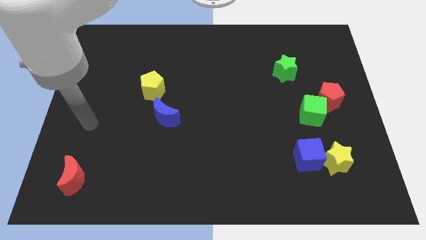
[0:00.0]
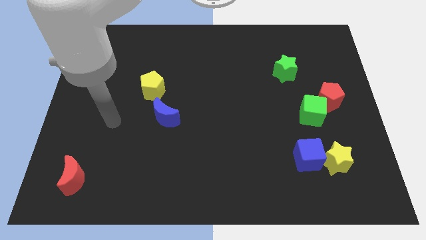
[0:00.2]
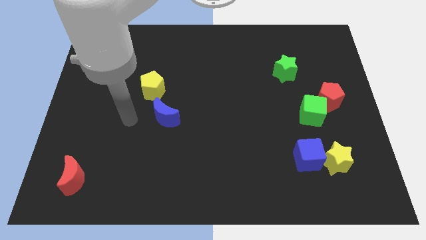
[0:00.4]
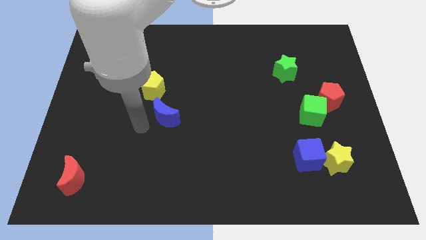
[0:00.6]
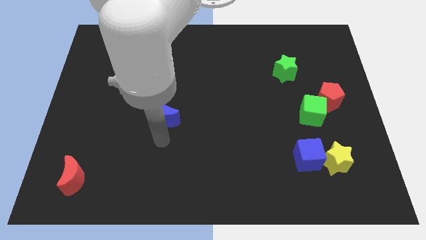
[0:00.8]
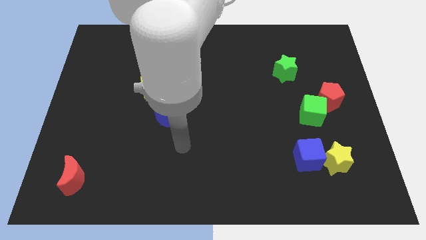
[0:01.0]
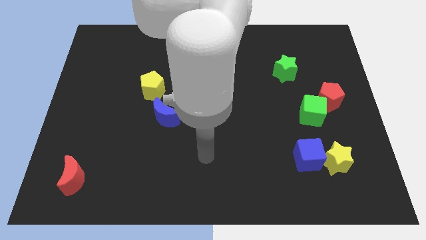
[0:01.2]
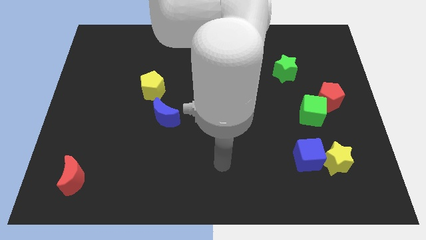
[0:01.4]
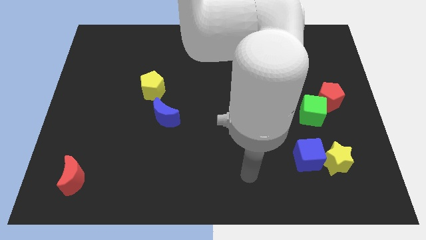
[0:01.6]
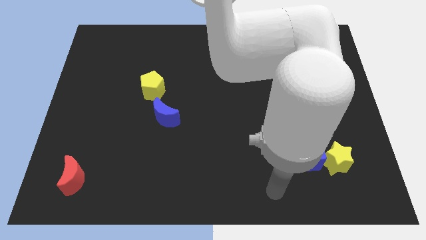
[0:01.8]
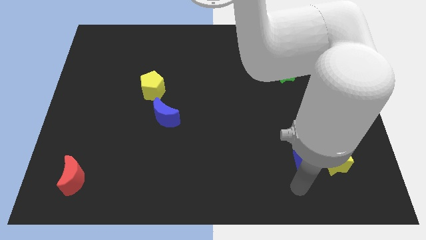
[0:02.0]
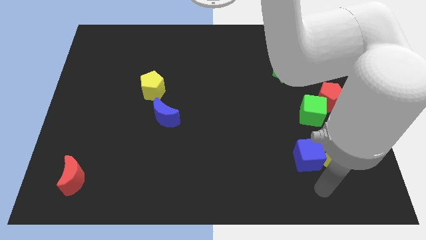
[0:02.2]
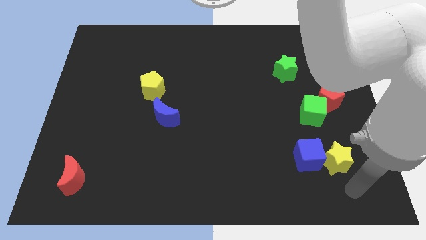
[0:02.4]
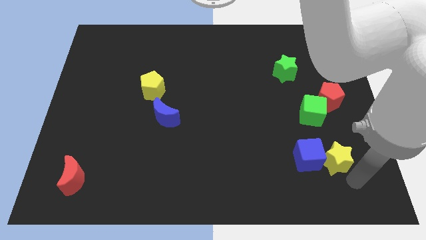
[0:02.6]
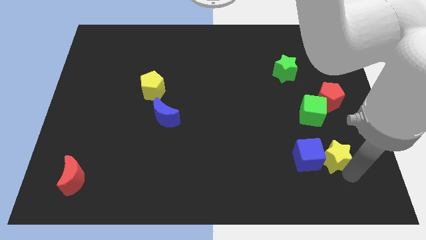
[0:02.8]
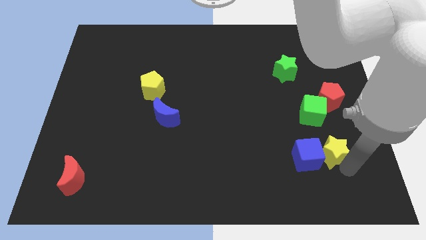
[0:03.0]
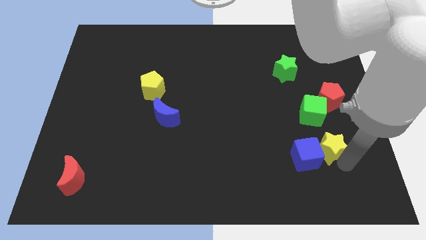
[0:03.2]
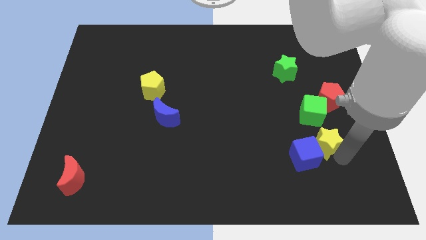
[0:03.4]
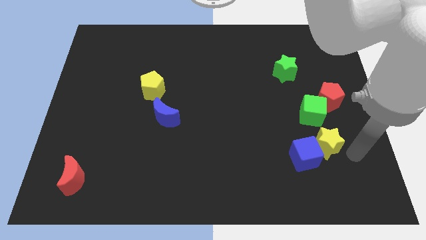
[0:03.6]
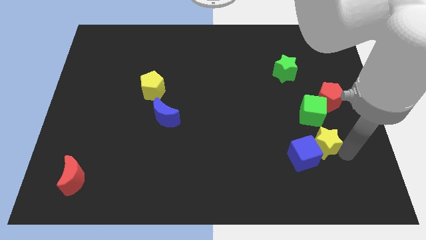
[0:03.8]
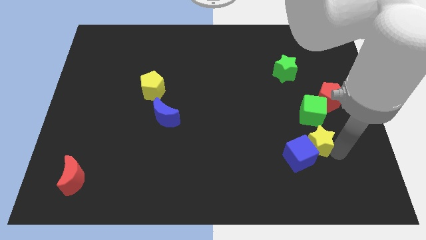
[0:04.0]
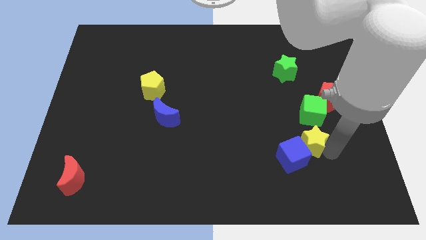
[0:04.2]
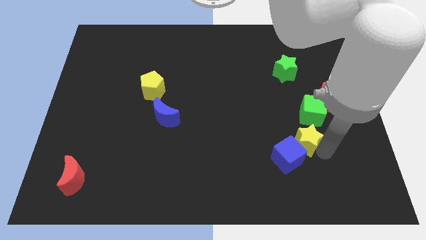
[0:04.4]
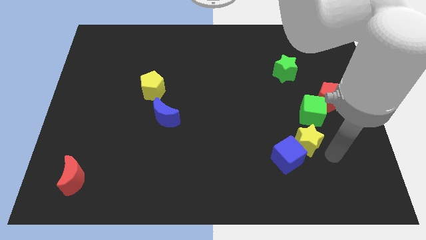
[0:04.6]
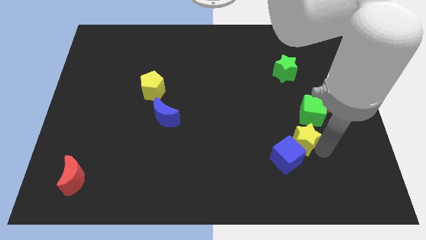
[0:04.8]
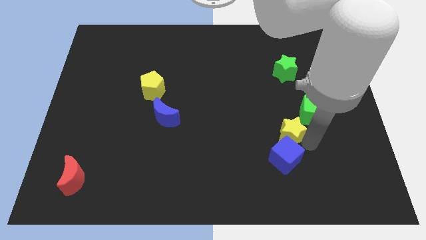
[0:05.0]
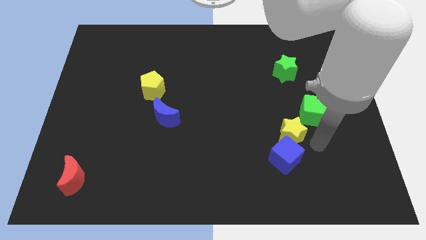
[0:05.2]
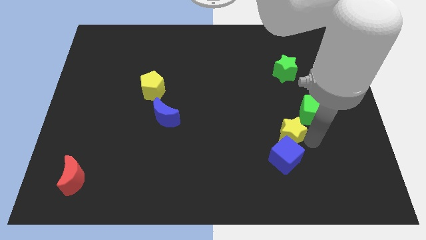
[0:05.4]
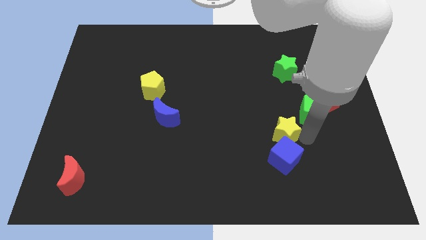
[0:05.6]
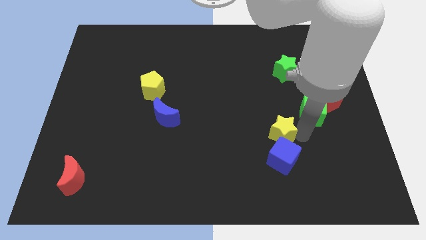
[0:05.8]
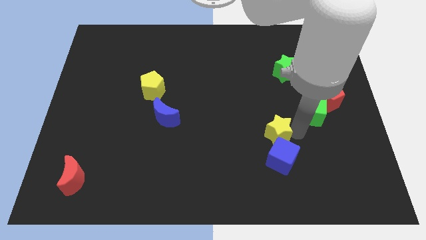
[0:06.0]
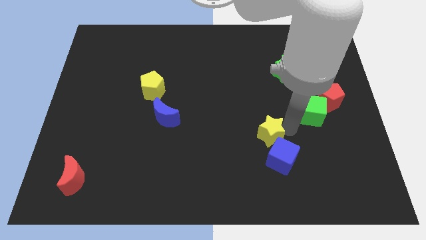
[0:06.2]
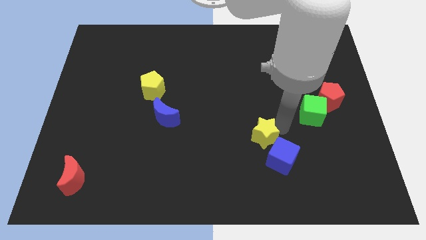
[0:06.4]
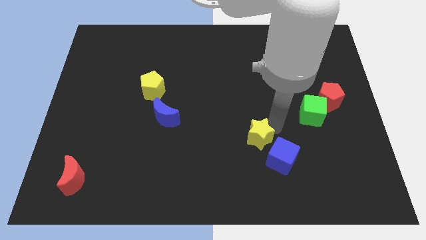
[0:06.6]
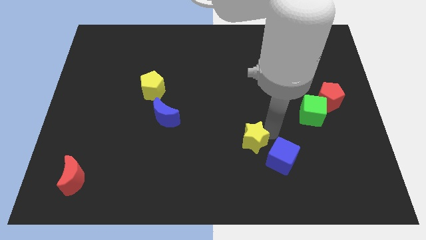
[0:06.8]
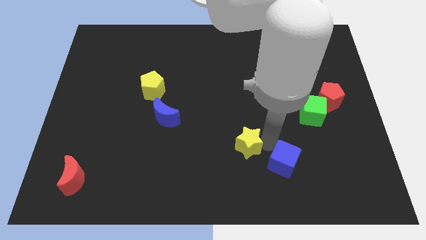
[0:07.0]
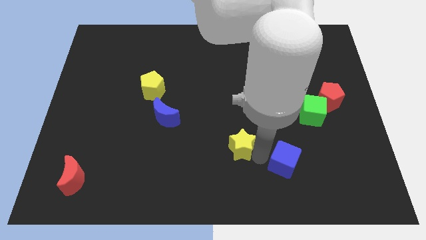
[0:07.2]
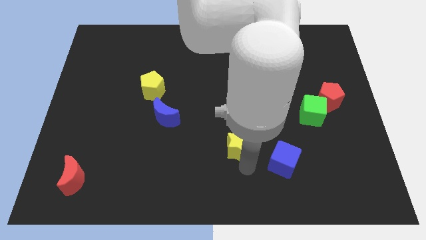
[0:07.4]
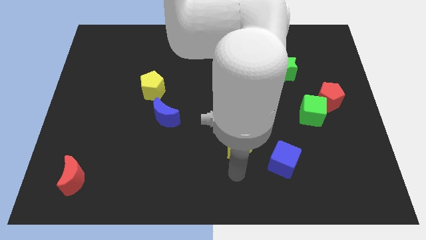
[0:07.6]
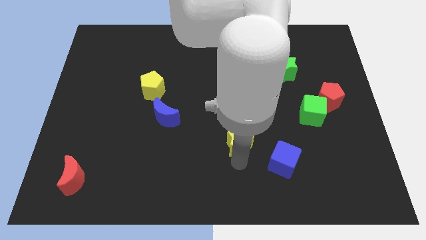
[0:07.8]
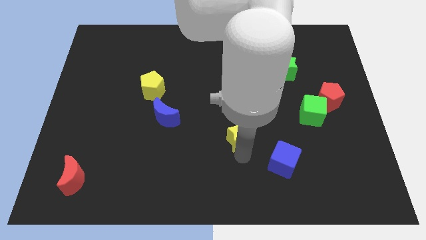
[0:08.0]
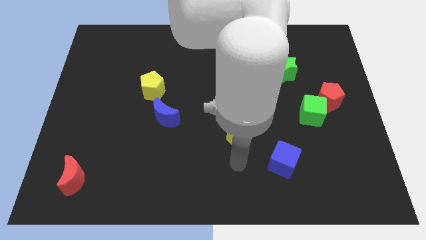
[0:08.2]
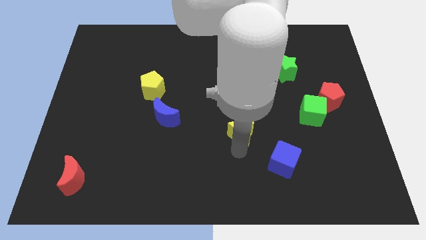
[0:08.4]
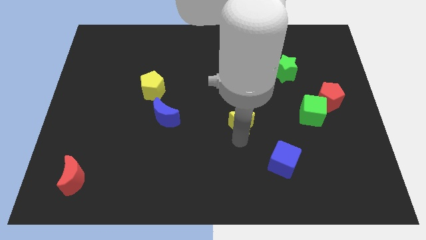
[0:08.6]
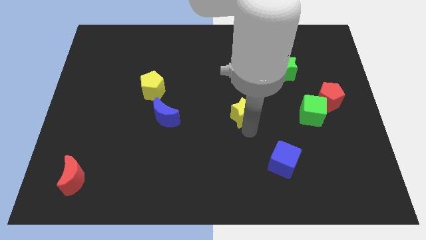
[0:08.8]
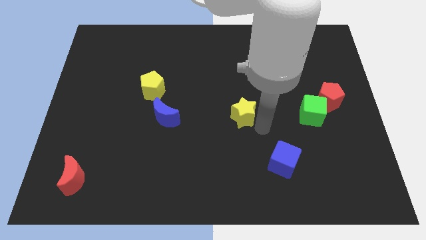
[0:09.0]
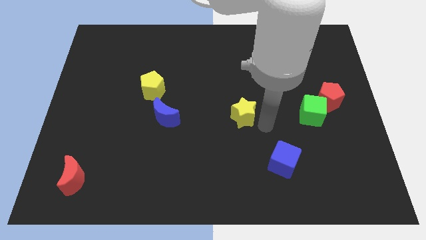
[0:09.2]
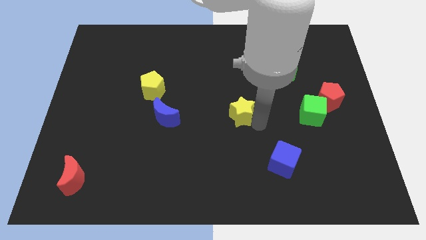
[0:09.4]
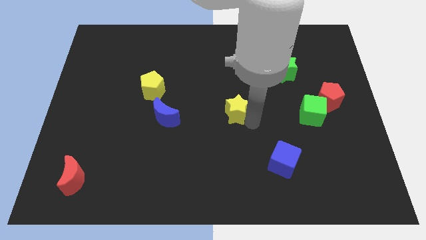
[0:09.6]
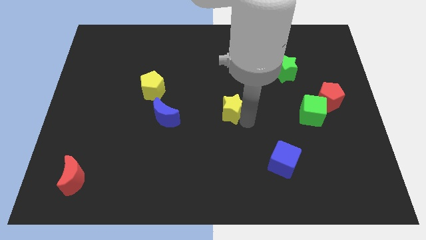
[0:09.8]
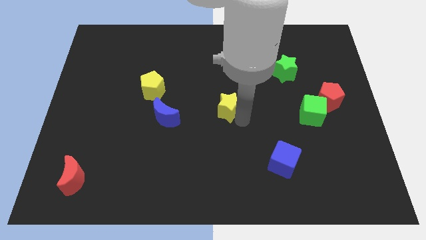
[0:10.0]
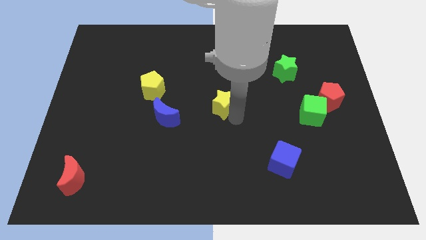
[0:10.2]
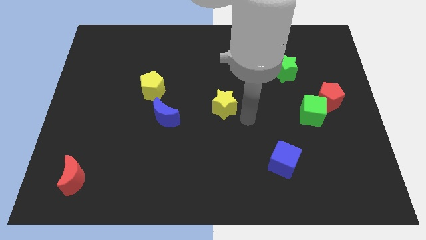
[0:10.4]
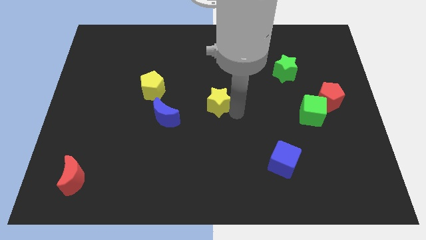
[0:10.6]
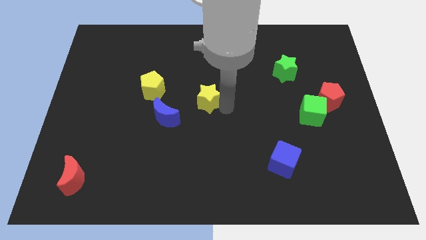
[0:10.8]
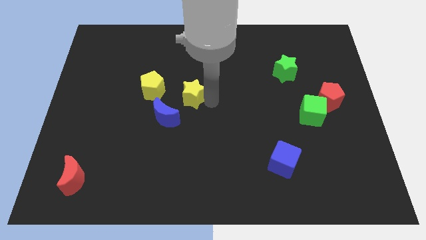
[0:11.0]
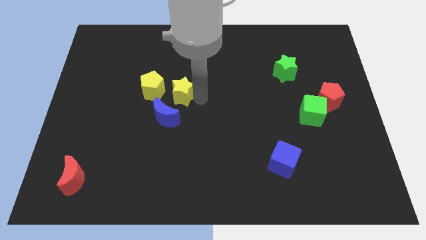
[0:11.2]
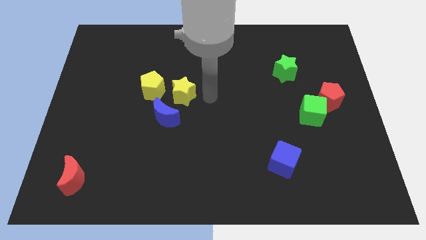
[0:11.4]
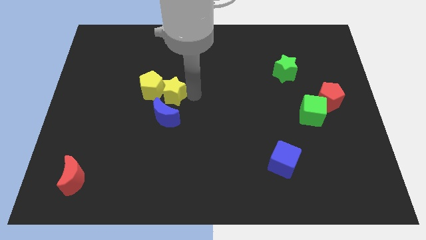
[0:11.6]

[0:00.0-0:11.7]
slide the yellow star towards the yellow pentagon

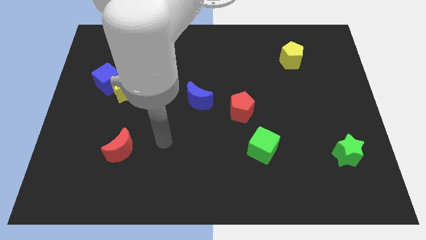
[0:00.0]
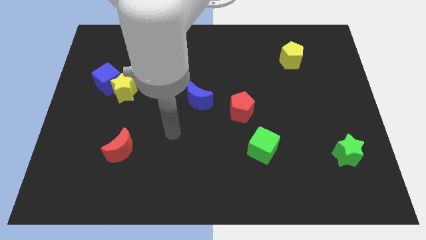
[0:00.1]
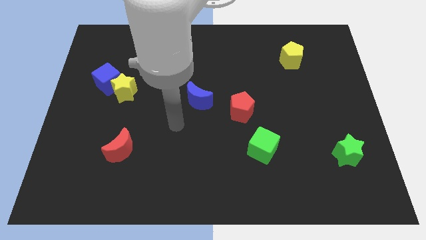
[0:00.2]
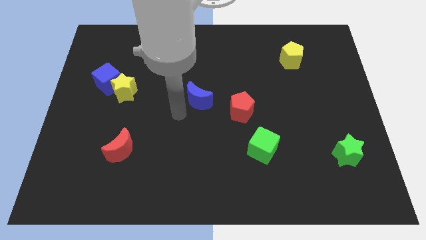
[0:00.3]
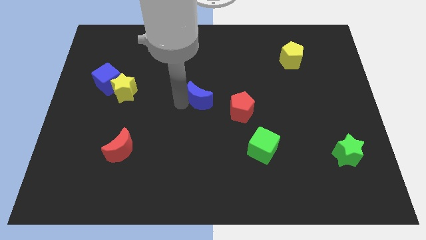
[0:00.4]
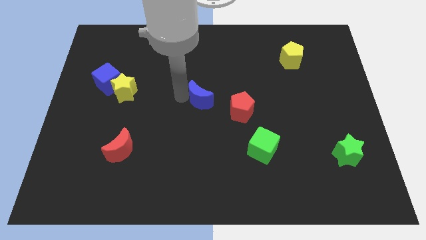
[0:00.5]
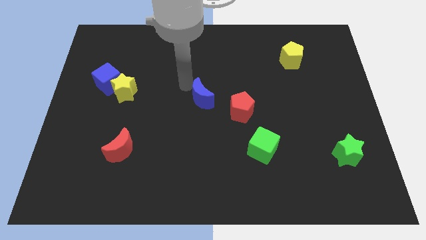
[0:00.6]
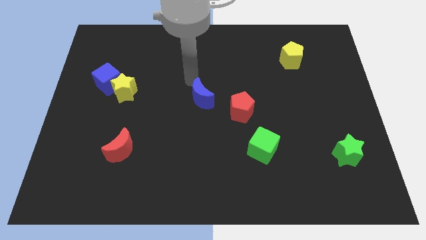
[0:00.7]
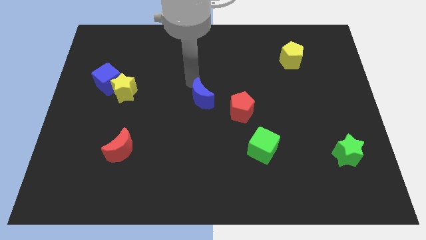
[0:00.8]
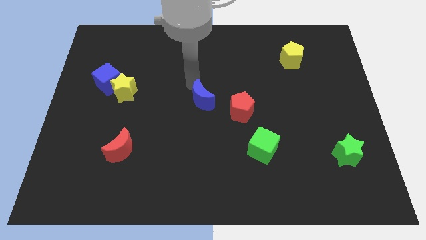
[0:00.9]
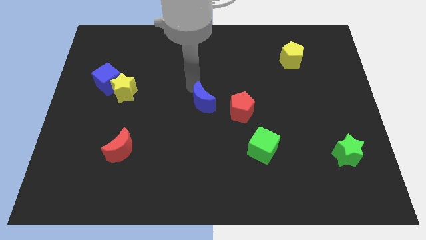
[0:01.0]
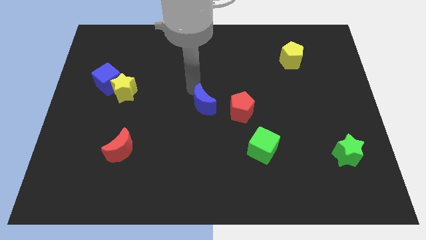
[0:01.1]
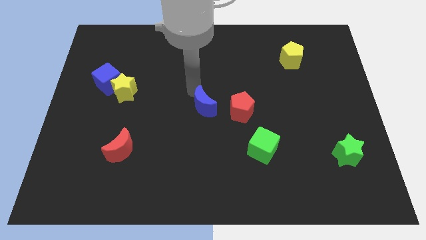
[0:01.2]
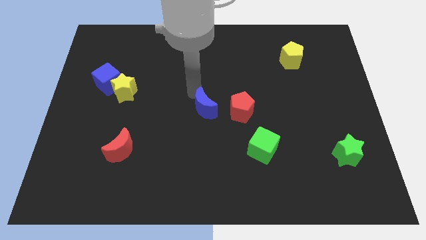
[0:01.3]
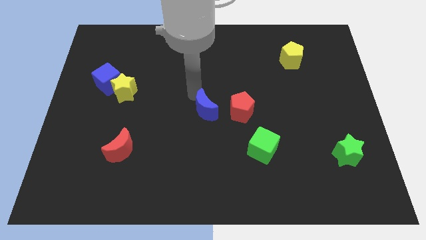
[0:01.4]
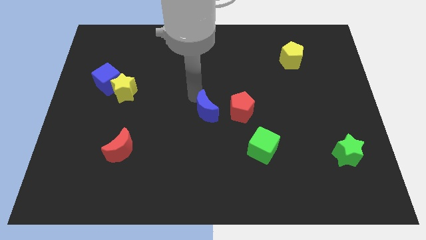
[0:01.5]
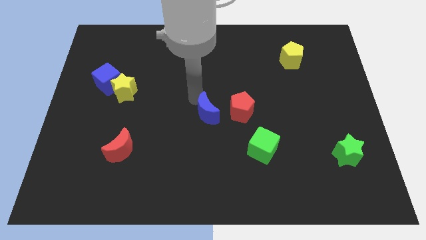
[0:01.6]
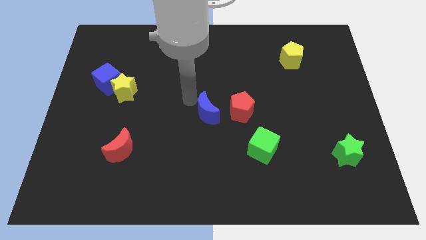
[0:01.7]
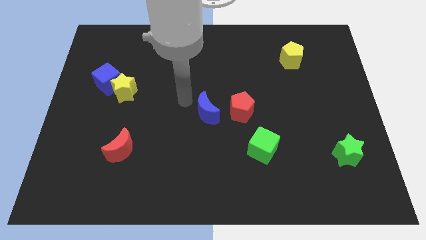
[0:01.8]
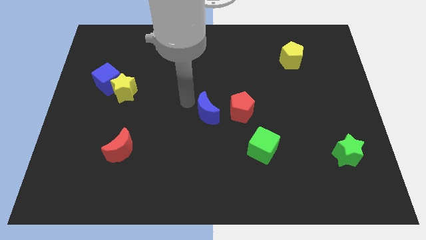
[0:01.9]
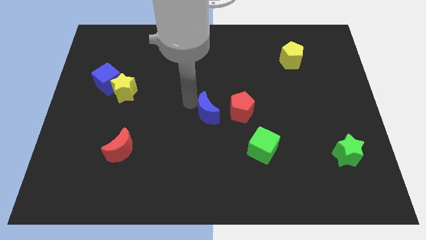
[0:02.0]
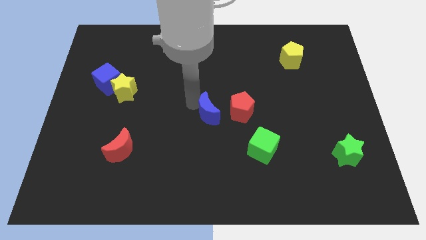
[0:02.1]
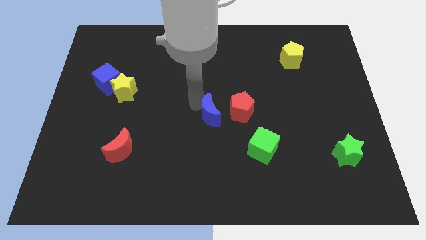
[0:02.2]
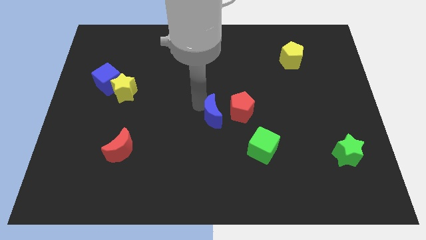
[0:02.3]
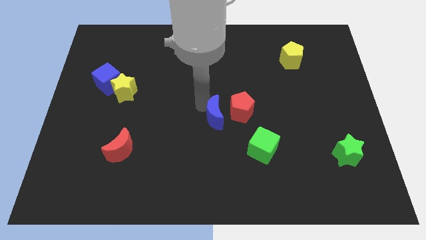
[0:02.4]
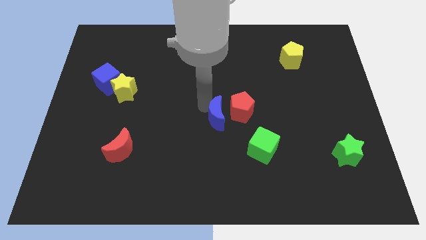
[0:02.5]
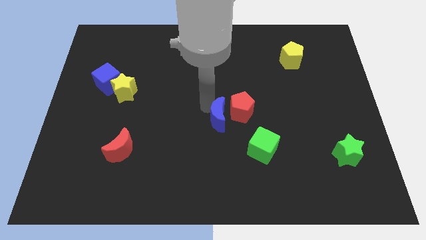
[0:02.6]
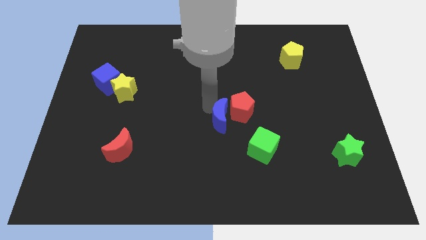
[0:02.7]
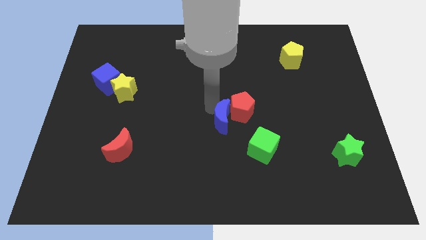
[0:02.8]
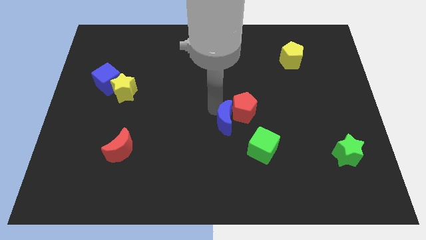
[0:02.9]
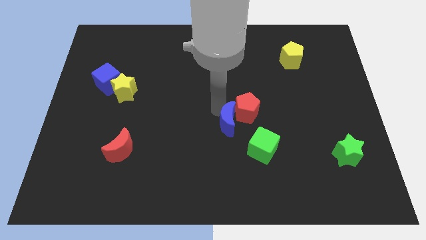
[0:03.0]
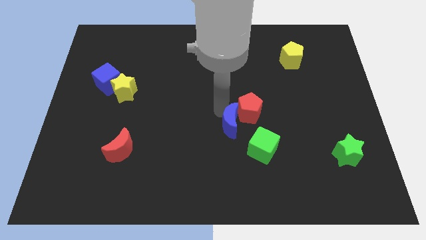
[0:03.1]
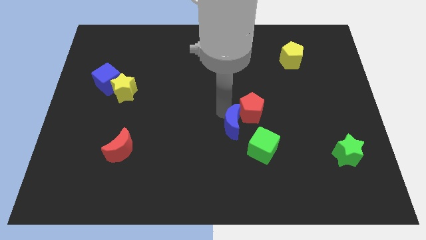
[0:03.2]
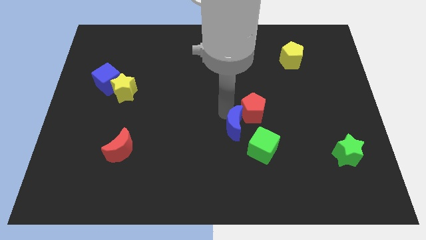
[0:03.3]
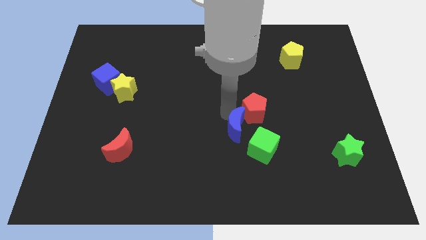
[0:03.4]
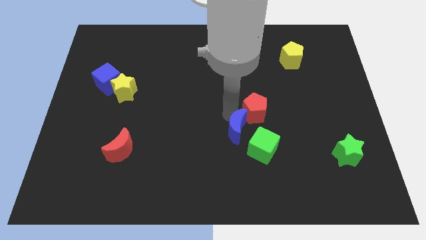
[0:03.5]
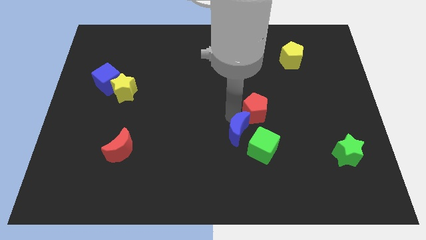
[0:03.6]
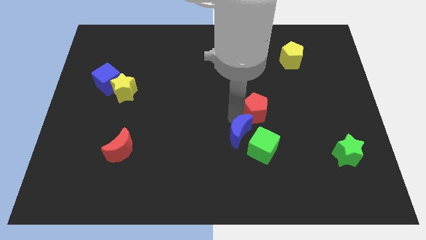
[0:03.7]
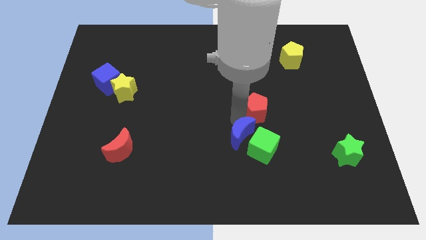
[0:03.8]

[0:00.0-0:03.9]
slide the blue moon next to the green cube
